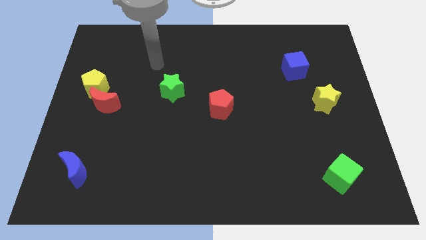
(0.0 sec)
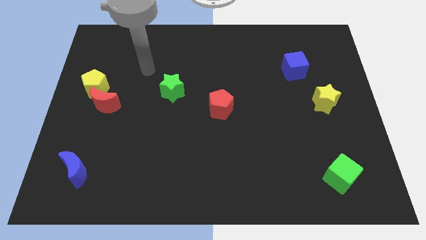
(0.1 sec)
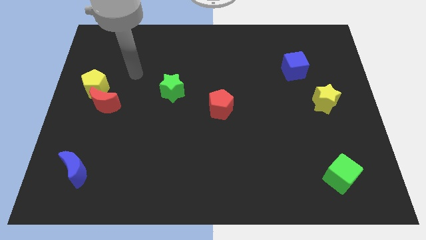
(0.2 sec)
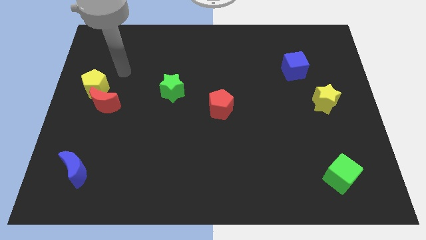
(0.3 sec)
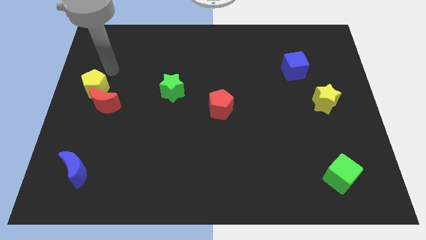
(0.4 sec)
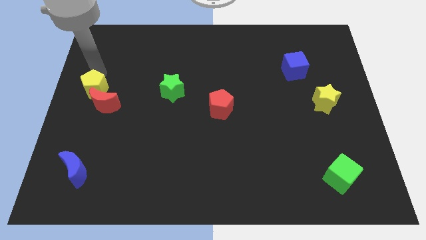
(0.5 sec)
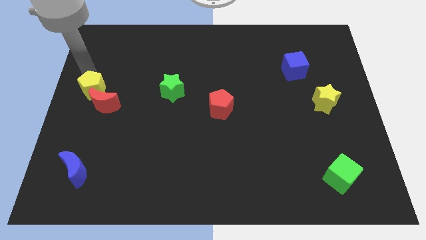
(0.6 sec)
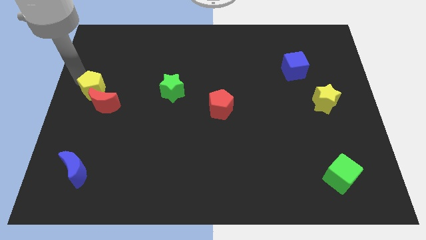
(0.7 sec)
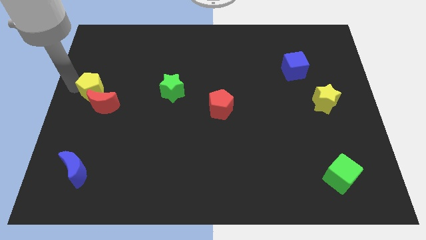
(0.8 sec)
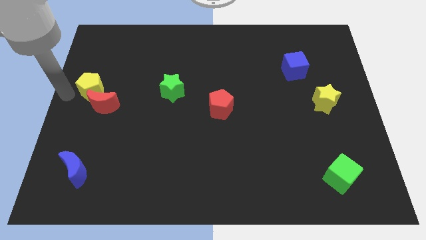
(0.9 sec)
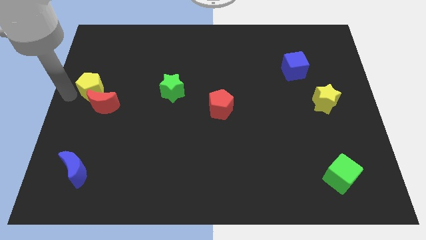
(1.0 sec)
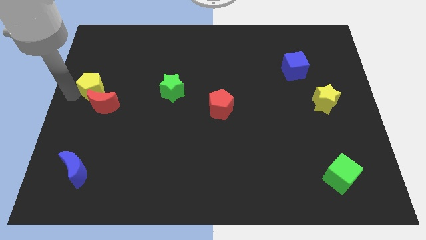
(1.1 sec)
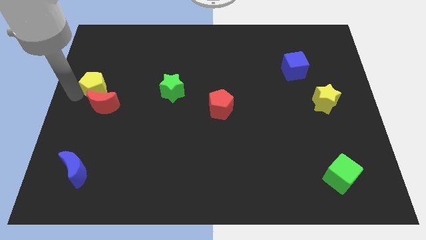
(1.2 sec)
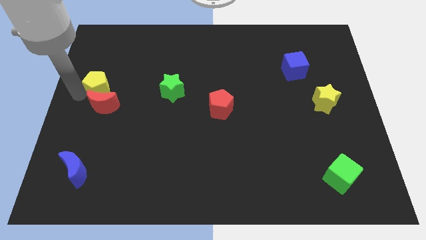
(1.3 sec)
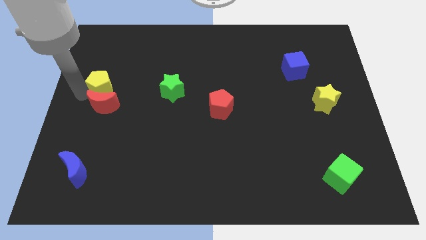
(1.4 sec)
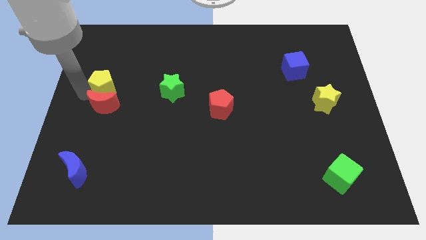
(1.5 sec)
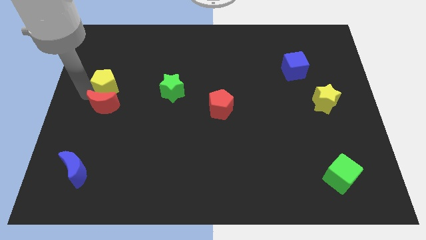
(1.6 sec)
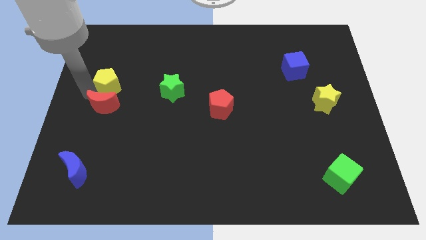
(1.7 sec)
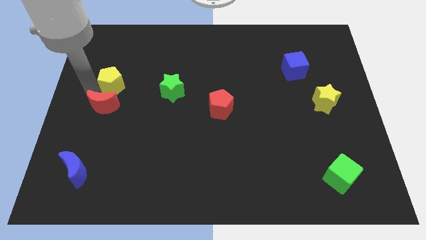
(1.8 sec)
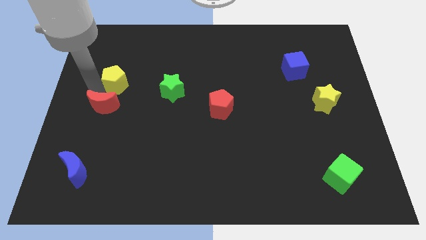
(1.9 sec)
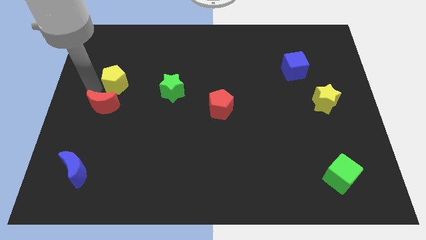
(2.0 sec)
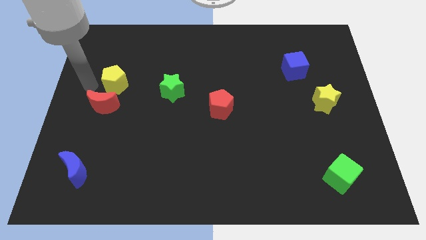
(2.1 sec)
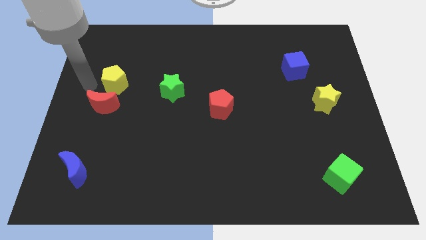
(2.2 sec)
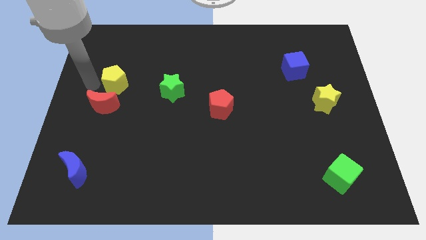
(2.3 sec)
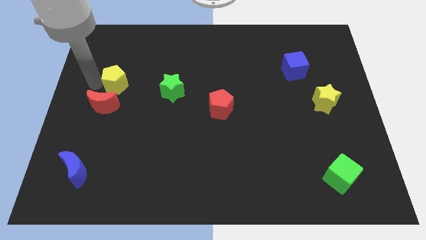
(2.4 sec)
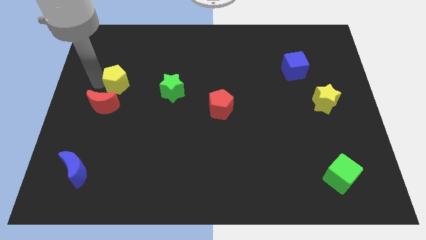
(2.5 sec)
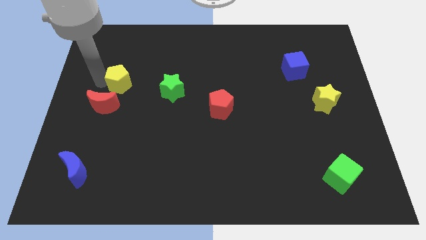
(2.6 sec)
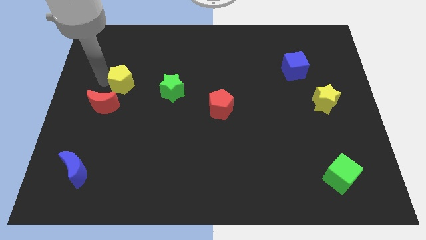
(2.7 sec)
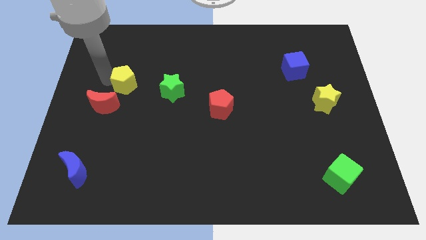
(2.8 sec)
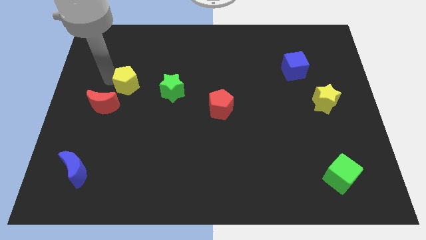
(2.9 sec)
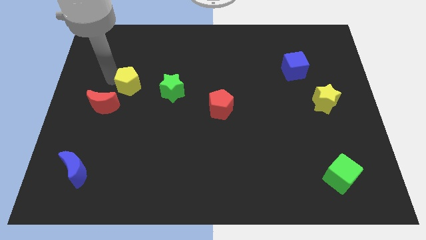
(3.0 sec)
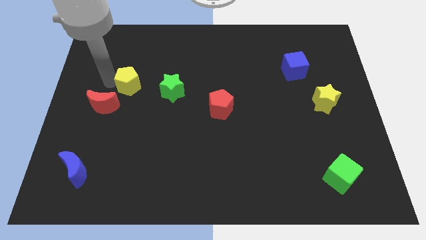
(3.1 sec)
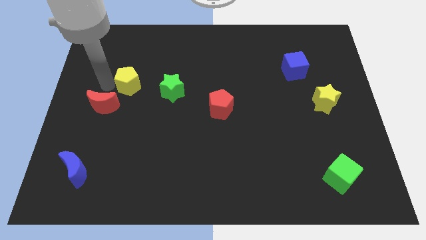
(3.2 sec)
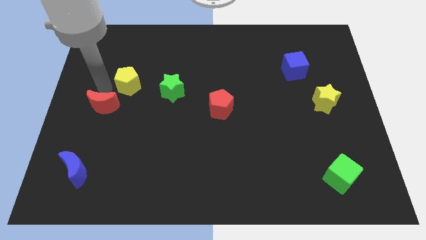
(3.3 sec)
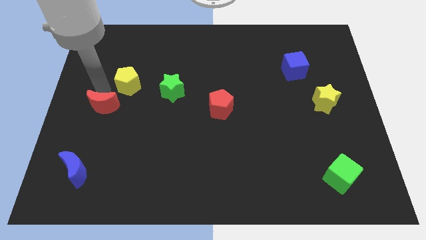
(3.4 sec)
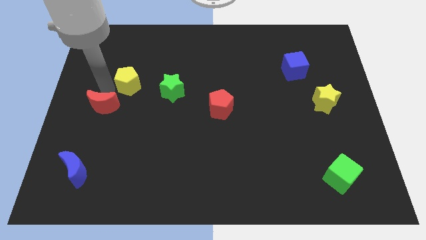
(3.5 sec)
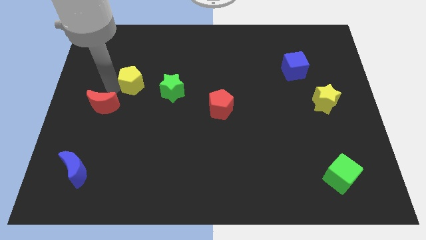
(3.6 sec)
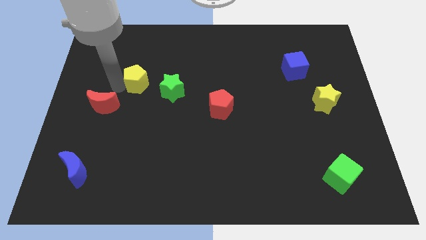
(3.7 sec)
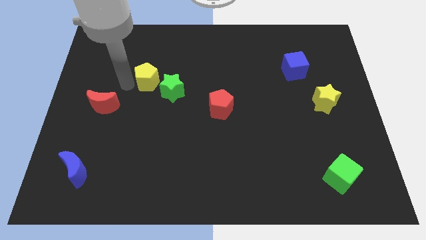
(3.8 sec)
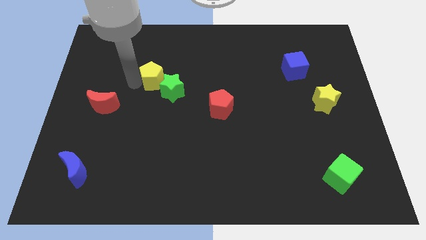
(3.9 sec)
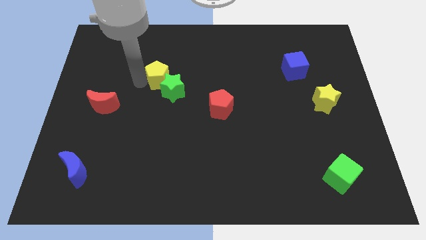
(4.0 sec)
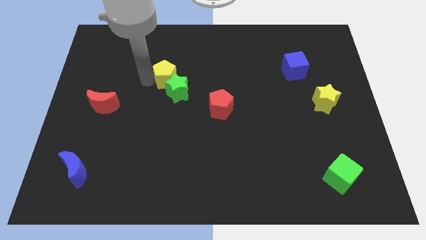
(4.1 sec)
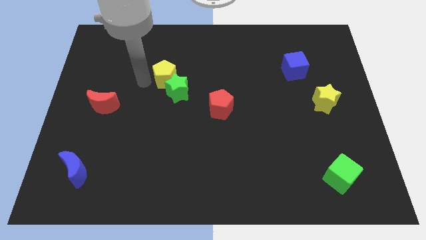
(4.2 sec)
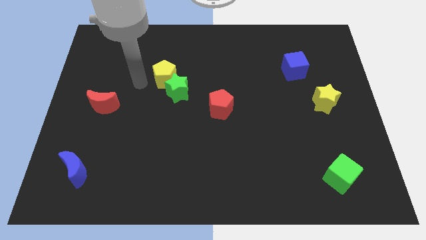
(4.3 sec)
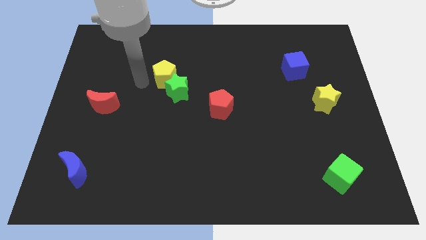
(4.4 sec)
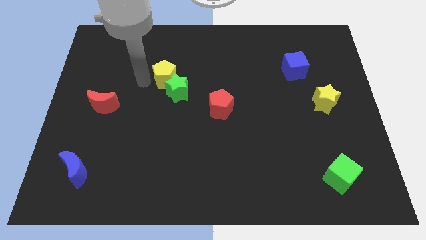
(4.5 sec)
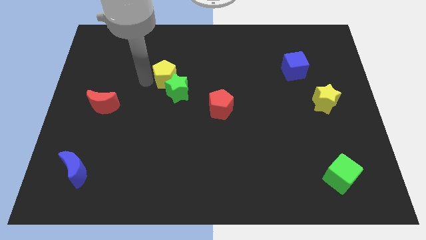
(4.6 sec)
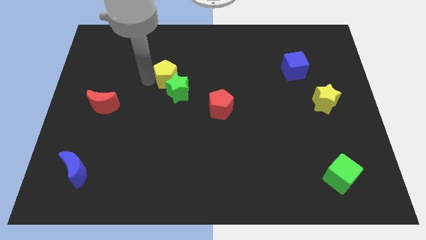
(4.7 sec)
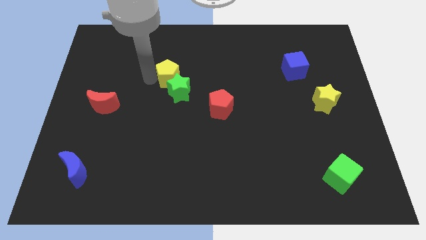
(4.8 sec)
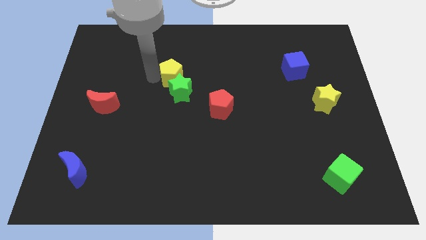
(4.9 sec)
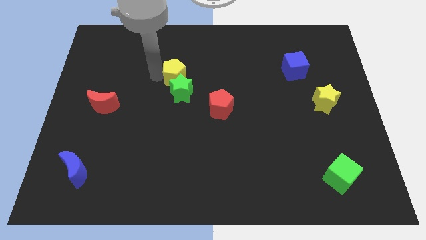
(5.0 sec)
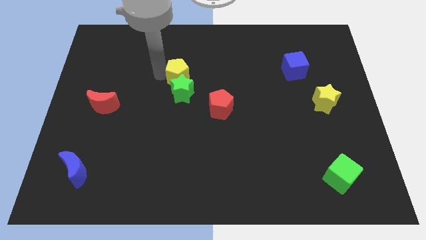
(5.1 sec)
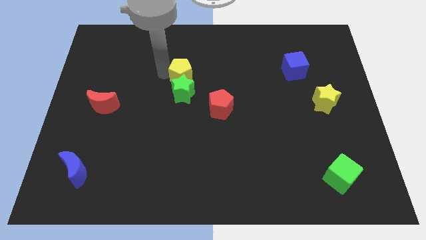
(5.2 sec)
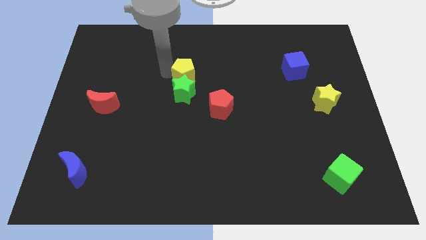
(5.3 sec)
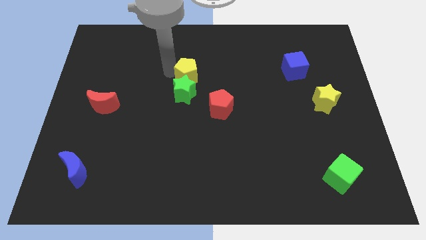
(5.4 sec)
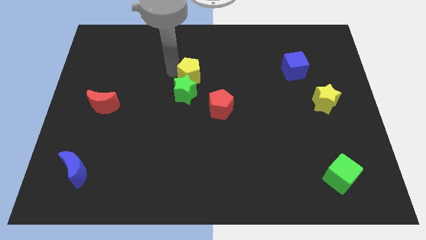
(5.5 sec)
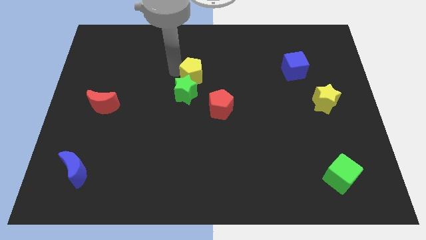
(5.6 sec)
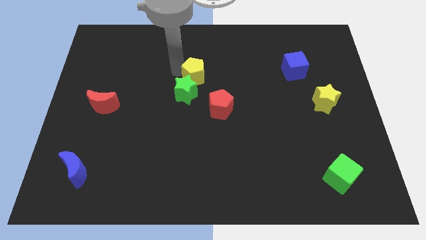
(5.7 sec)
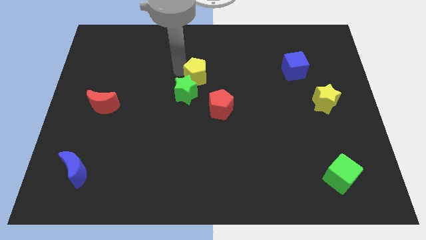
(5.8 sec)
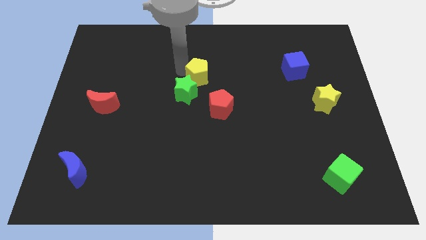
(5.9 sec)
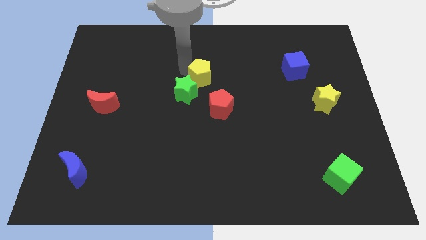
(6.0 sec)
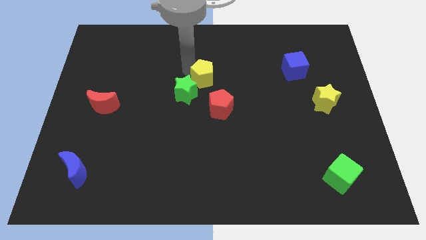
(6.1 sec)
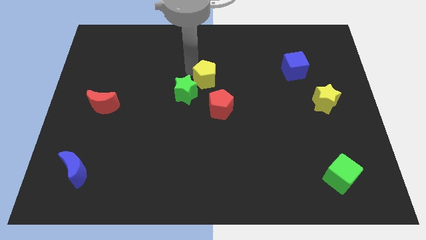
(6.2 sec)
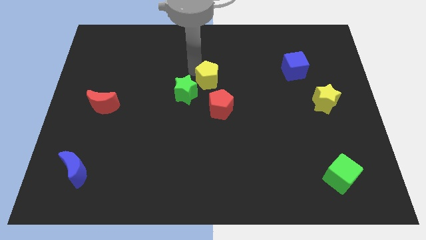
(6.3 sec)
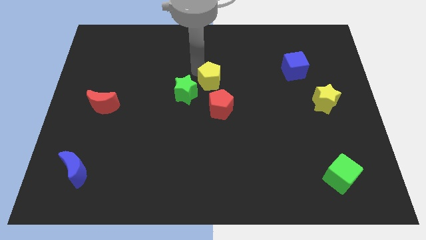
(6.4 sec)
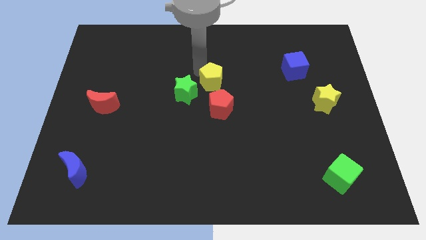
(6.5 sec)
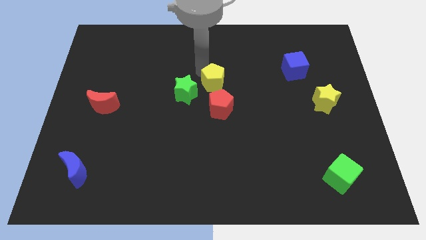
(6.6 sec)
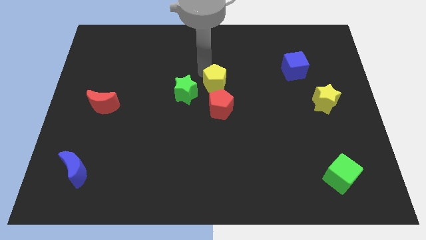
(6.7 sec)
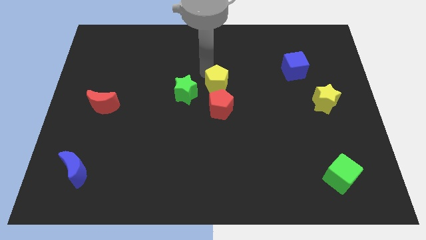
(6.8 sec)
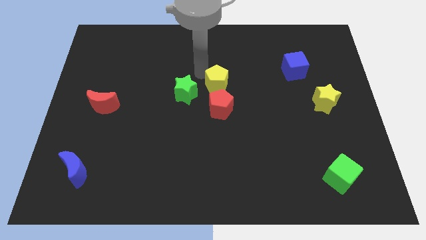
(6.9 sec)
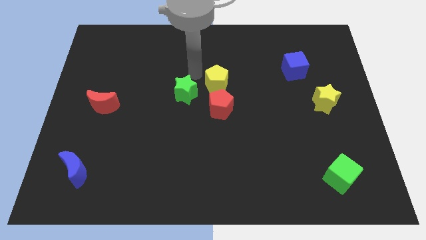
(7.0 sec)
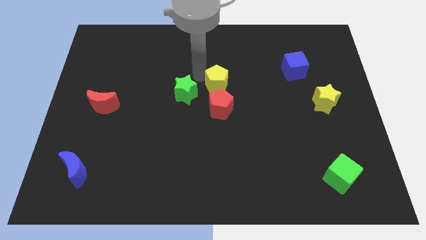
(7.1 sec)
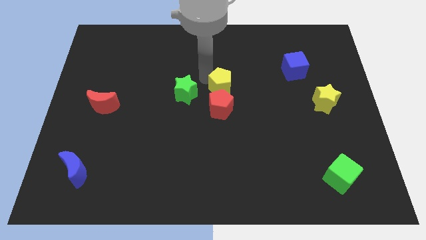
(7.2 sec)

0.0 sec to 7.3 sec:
push the yellow pentagon diagonally up and to the right of the red pentagon
